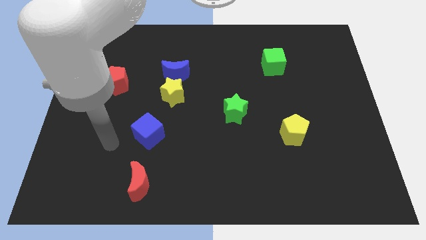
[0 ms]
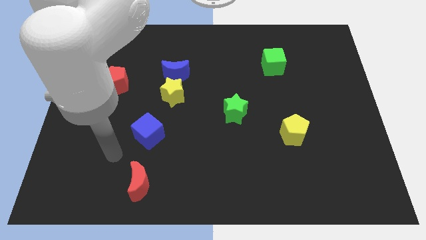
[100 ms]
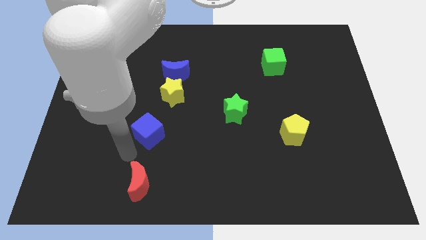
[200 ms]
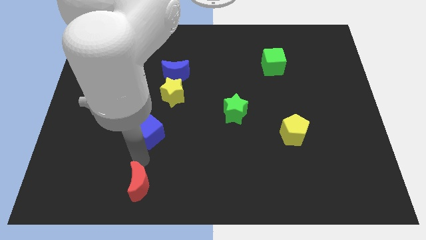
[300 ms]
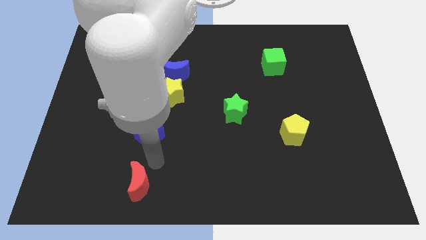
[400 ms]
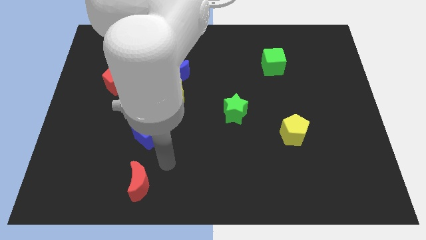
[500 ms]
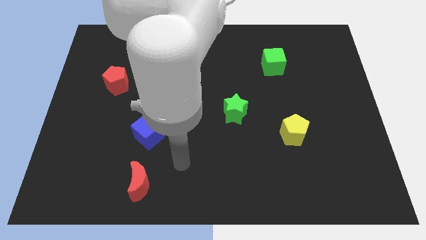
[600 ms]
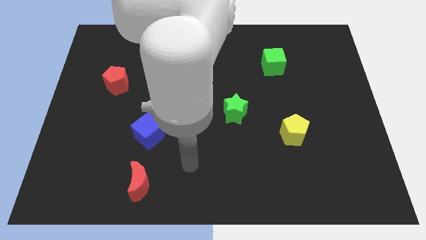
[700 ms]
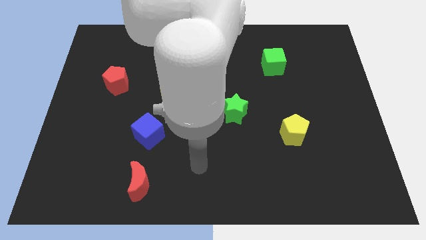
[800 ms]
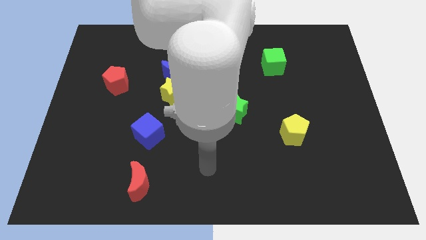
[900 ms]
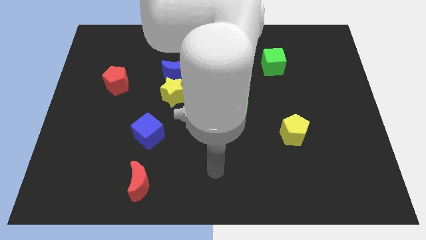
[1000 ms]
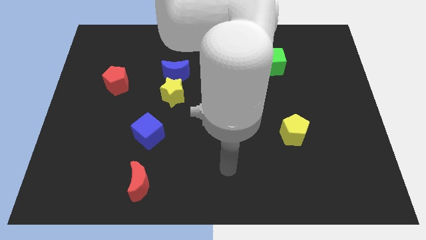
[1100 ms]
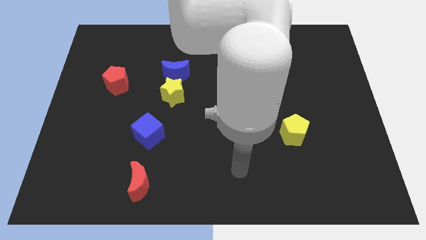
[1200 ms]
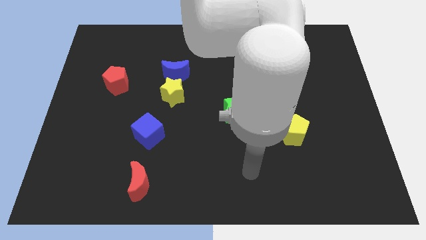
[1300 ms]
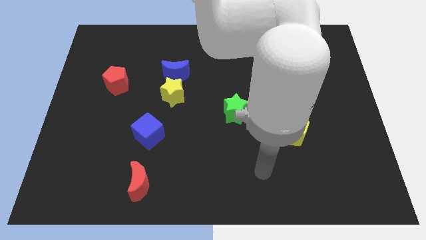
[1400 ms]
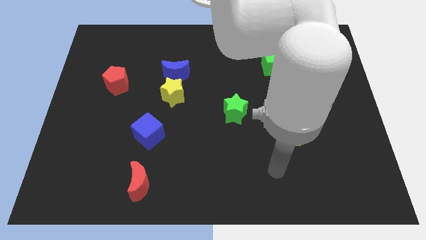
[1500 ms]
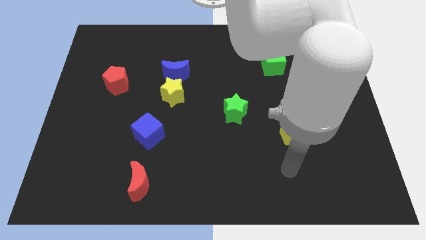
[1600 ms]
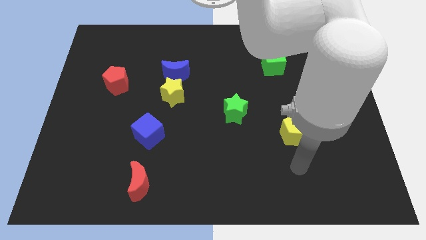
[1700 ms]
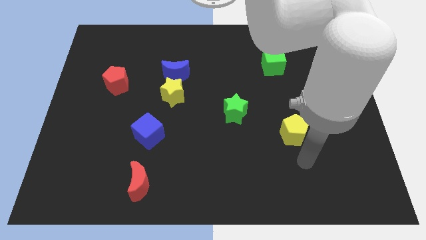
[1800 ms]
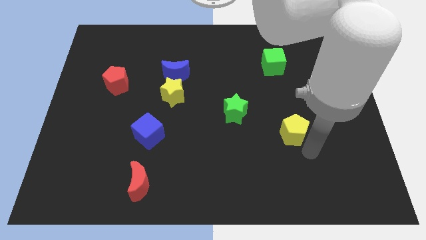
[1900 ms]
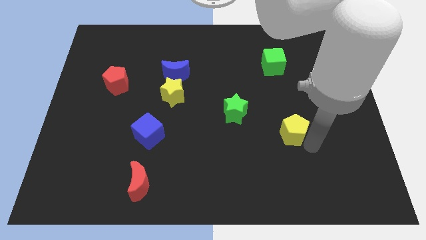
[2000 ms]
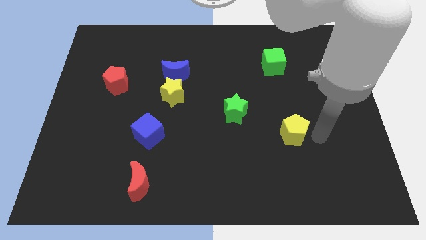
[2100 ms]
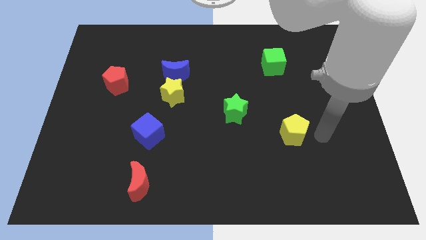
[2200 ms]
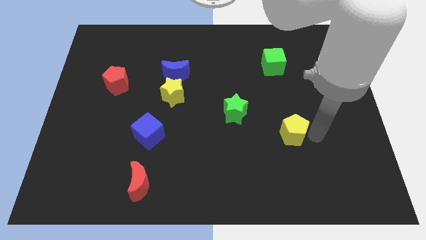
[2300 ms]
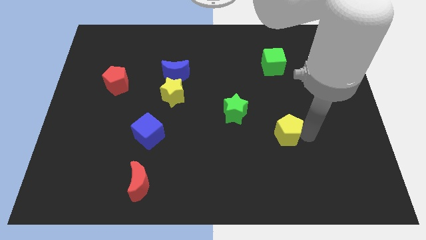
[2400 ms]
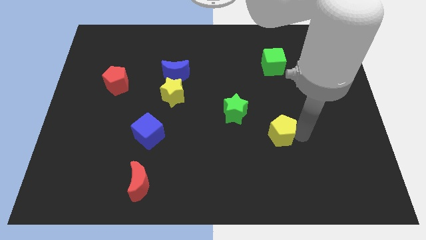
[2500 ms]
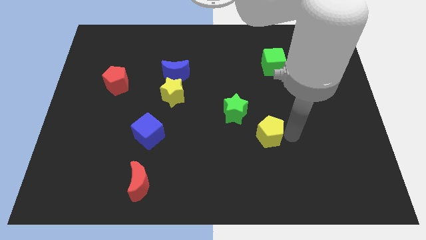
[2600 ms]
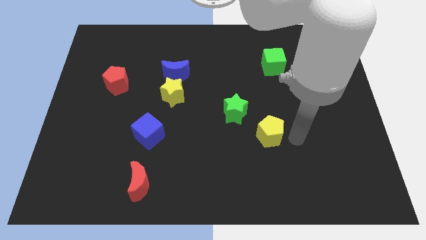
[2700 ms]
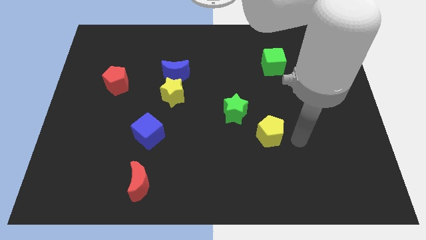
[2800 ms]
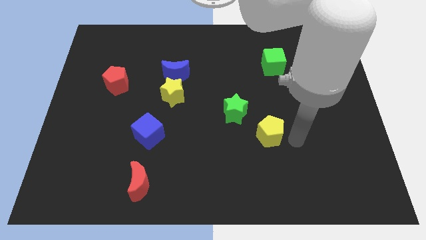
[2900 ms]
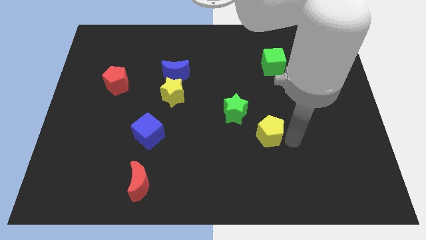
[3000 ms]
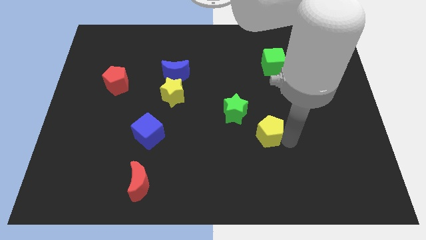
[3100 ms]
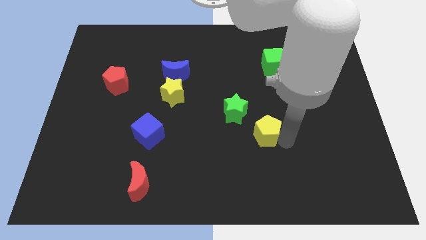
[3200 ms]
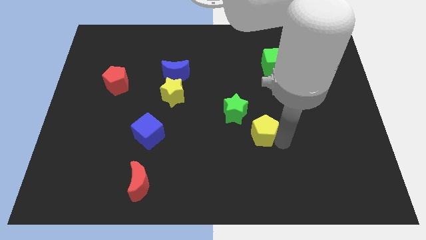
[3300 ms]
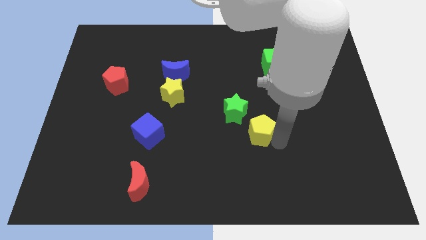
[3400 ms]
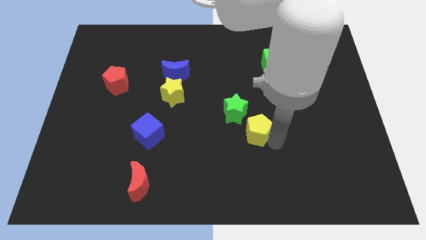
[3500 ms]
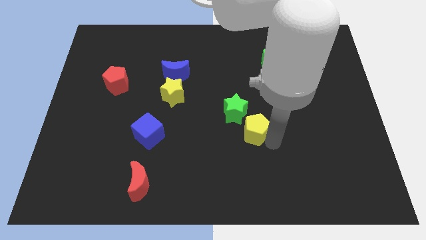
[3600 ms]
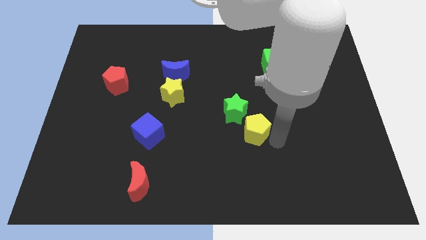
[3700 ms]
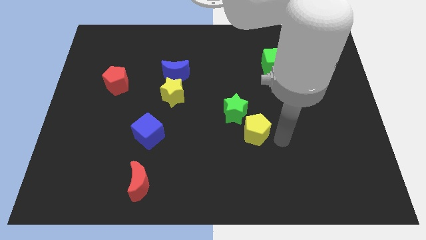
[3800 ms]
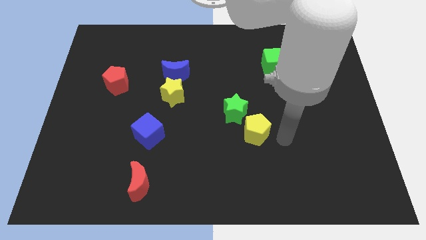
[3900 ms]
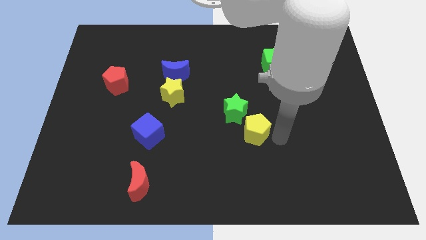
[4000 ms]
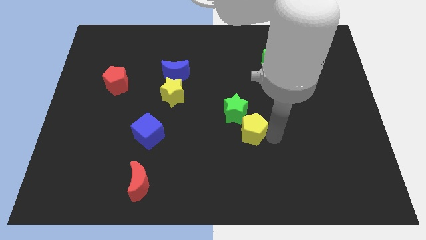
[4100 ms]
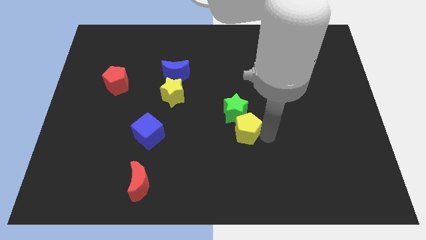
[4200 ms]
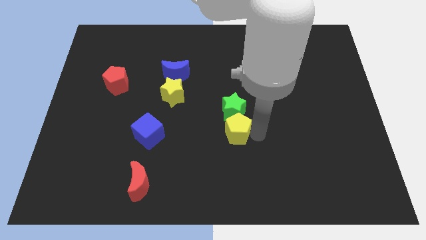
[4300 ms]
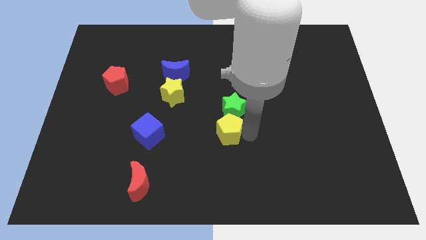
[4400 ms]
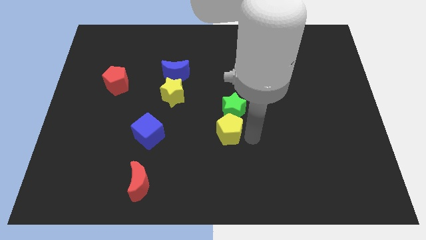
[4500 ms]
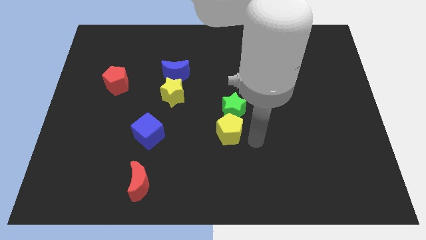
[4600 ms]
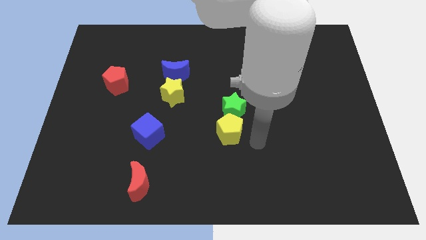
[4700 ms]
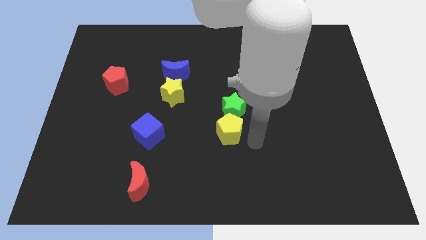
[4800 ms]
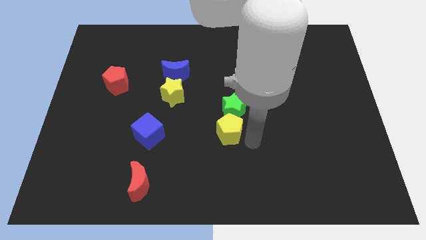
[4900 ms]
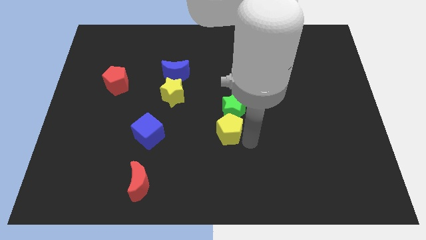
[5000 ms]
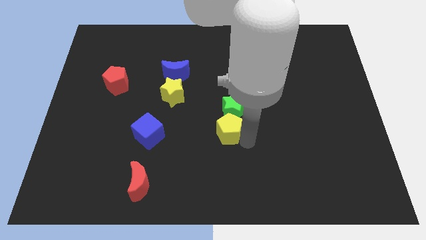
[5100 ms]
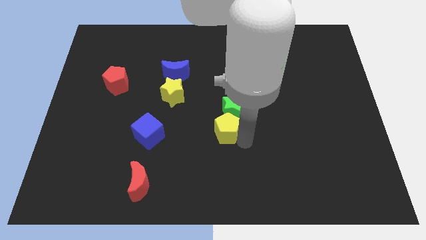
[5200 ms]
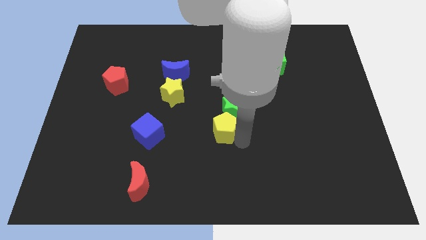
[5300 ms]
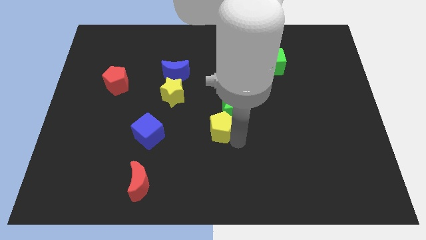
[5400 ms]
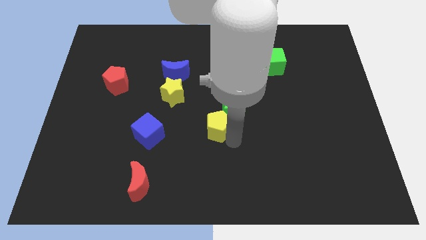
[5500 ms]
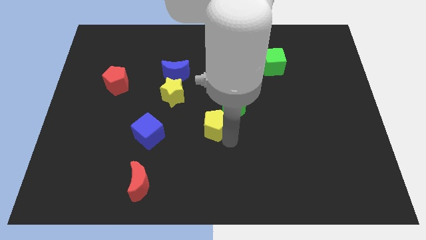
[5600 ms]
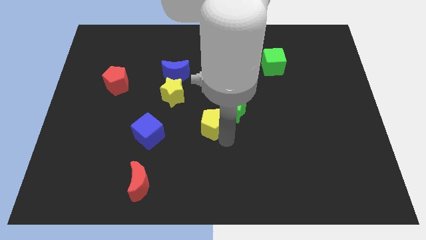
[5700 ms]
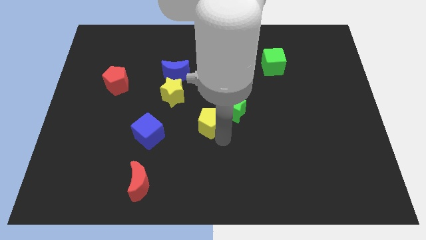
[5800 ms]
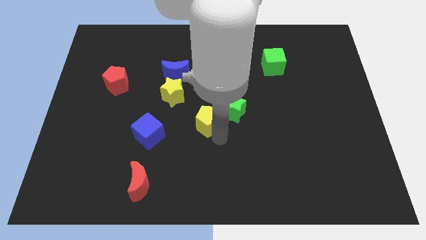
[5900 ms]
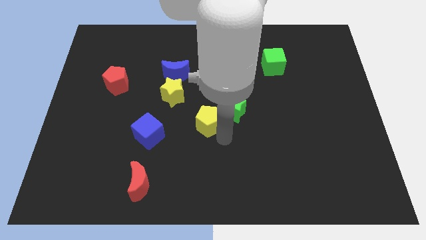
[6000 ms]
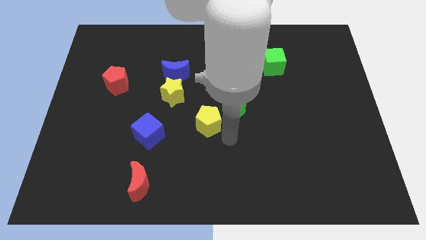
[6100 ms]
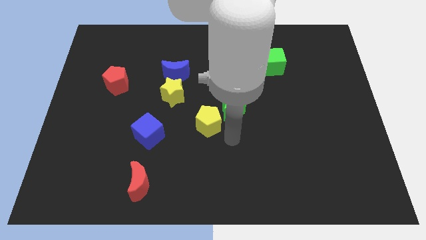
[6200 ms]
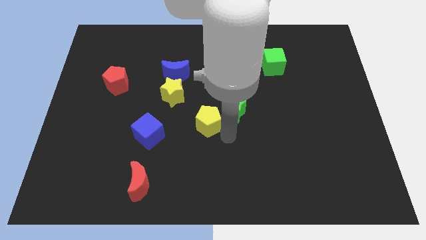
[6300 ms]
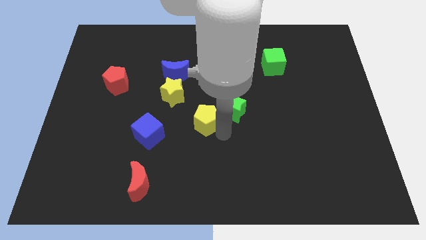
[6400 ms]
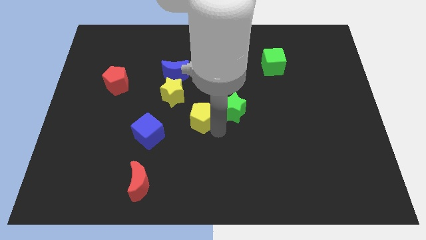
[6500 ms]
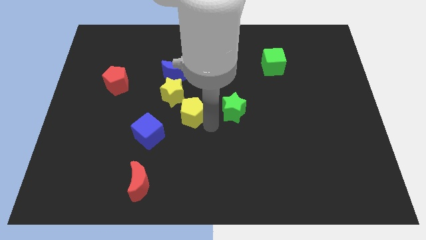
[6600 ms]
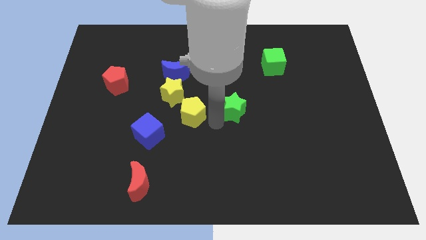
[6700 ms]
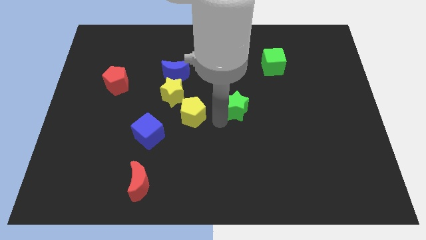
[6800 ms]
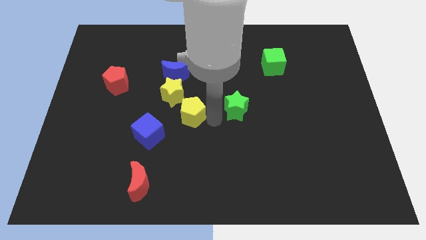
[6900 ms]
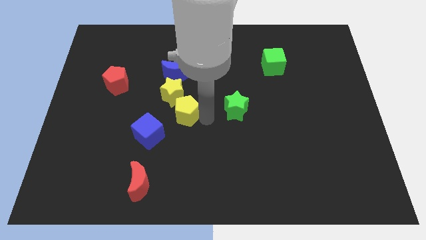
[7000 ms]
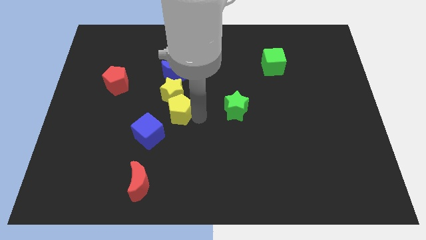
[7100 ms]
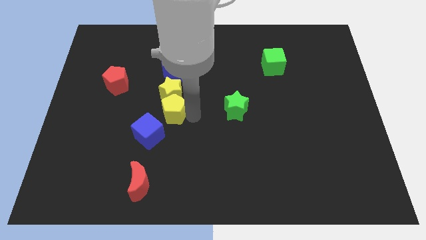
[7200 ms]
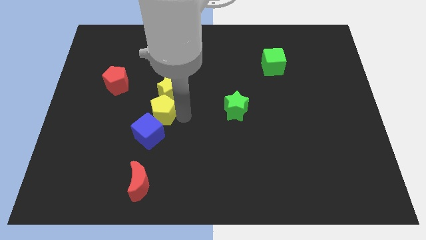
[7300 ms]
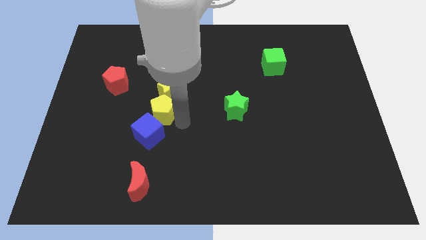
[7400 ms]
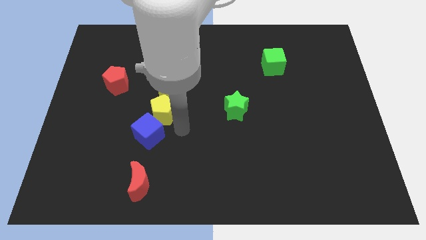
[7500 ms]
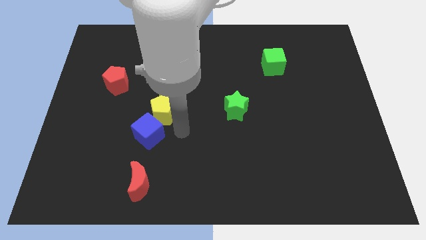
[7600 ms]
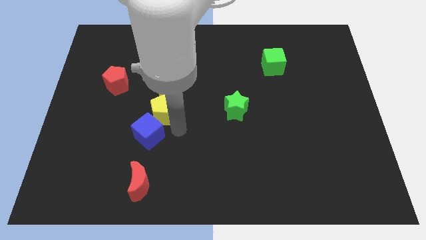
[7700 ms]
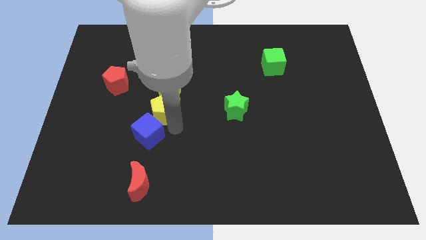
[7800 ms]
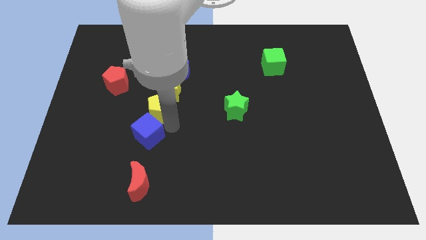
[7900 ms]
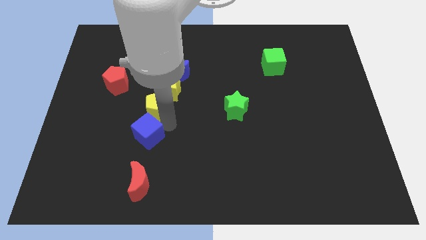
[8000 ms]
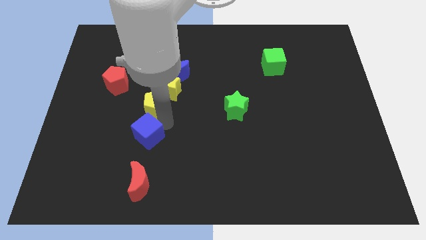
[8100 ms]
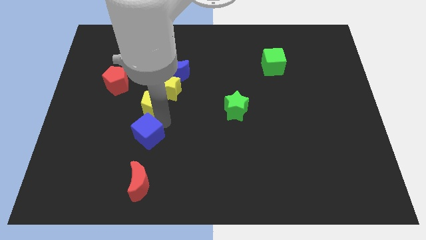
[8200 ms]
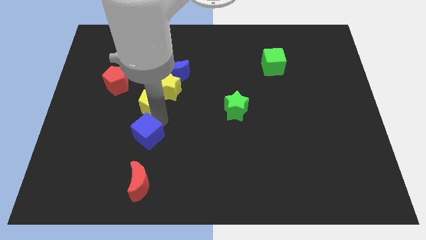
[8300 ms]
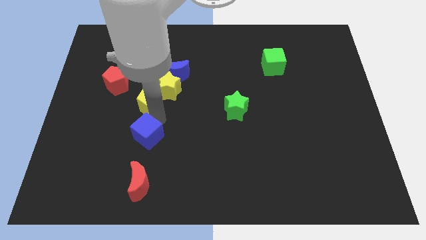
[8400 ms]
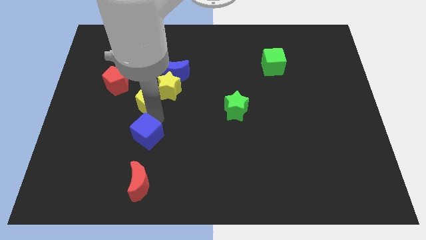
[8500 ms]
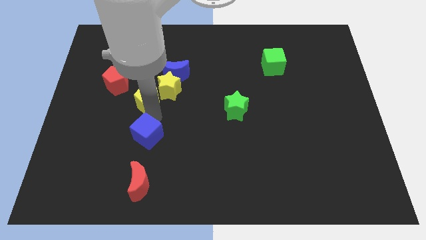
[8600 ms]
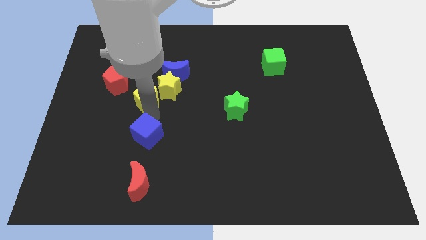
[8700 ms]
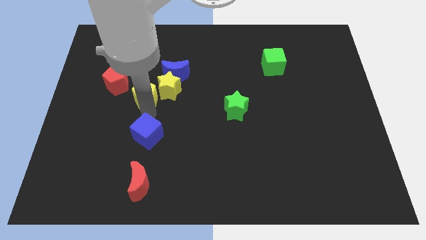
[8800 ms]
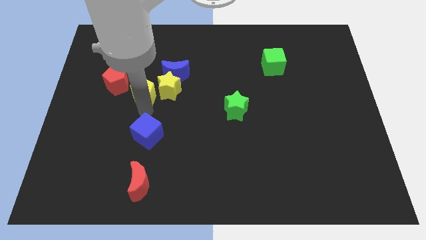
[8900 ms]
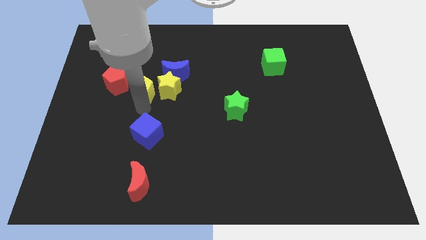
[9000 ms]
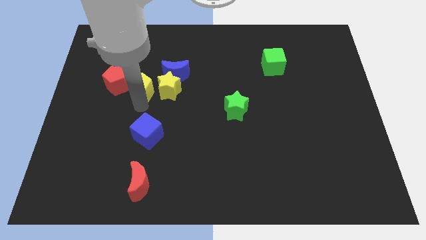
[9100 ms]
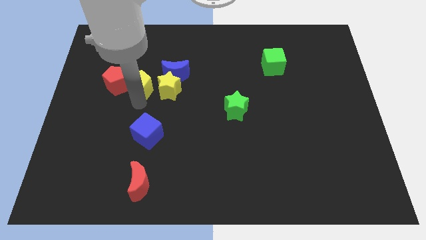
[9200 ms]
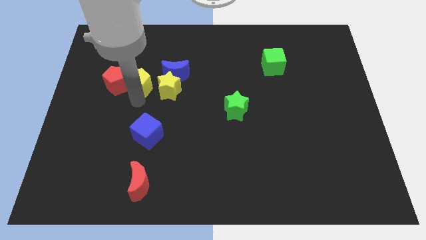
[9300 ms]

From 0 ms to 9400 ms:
push the yellow pentagon to the top right side of the red pentagon
